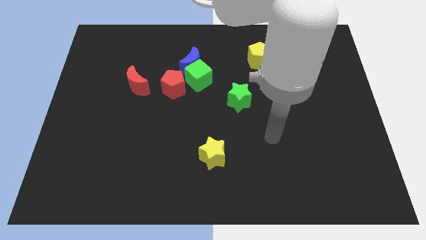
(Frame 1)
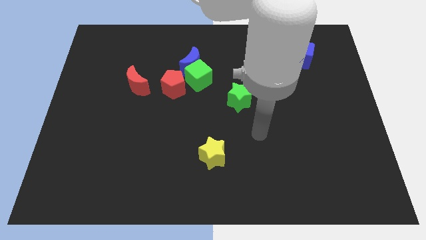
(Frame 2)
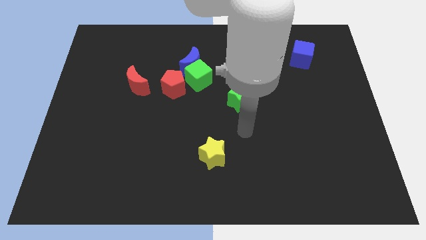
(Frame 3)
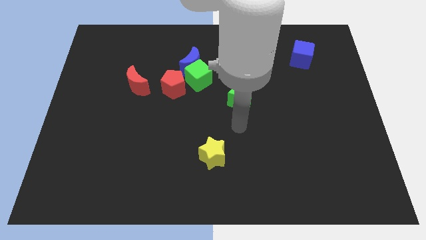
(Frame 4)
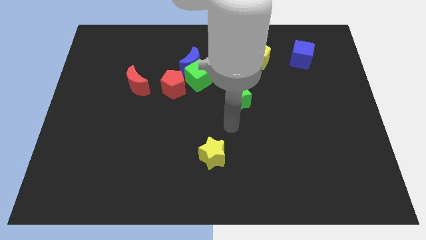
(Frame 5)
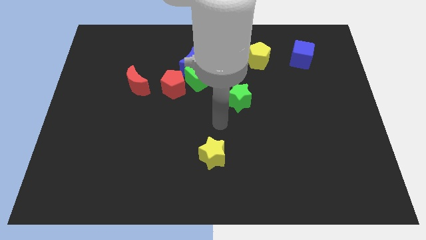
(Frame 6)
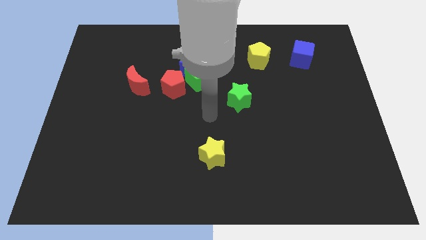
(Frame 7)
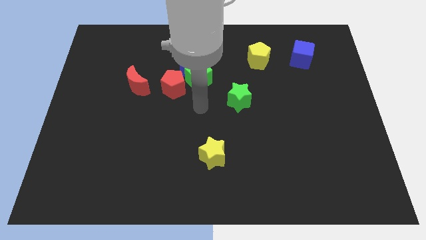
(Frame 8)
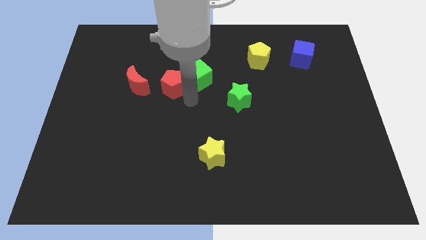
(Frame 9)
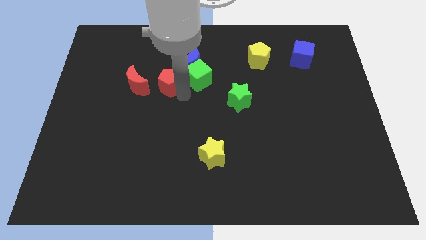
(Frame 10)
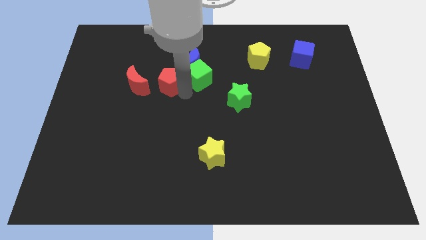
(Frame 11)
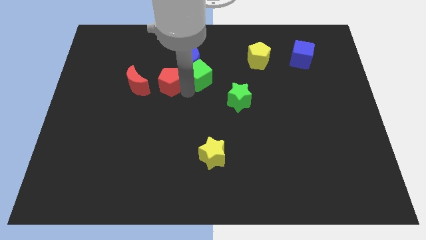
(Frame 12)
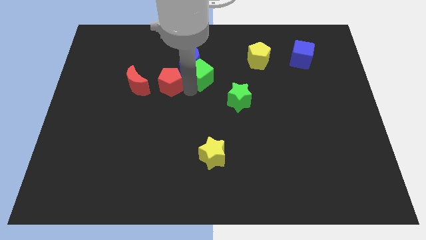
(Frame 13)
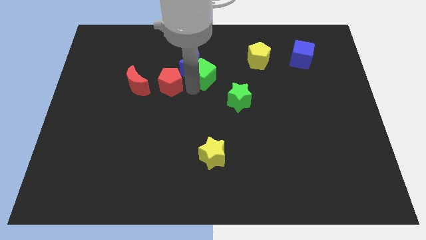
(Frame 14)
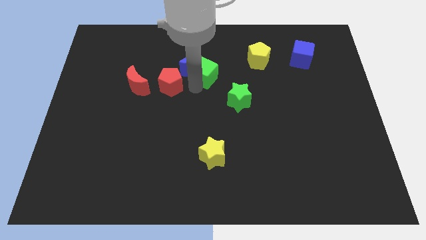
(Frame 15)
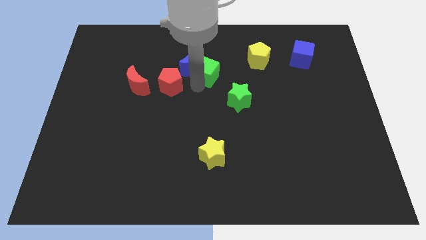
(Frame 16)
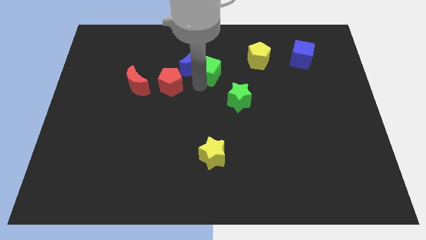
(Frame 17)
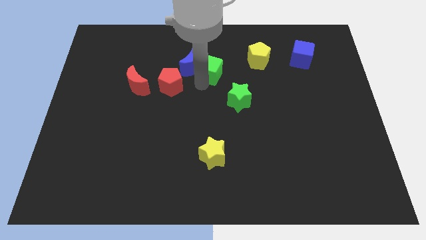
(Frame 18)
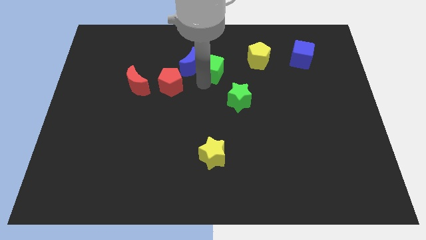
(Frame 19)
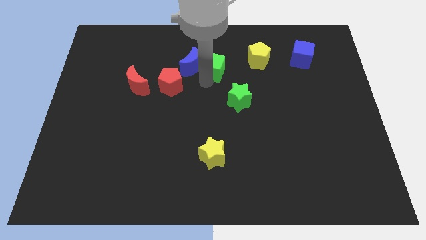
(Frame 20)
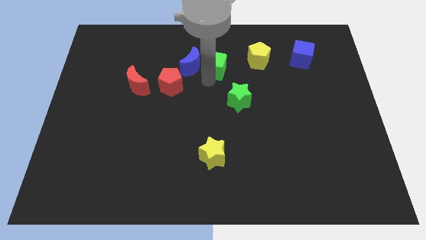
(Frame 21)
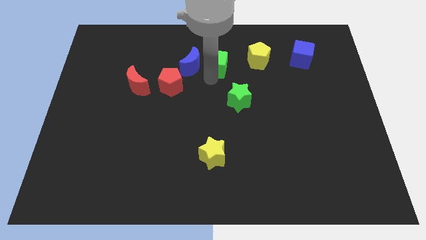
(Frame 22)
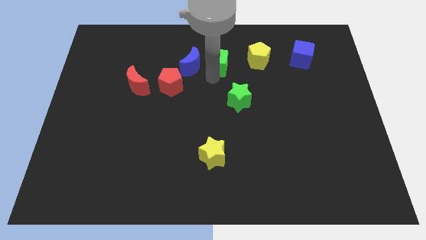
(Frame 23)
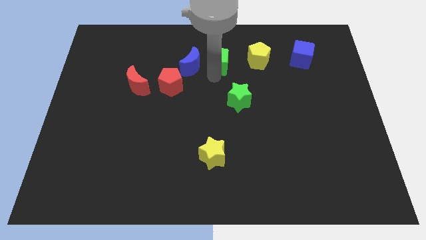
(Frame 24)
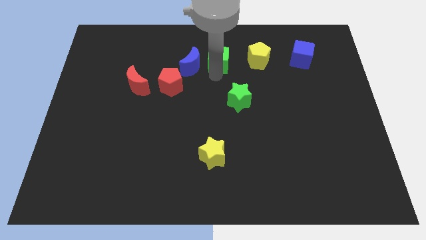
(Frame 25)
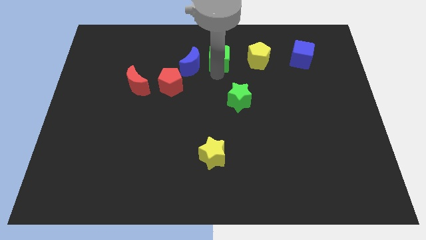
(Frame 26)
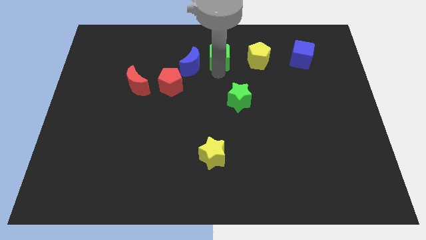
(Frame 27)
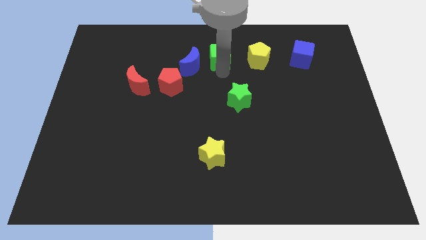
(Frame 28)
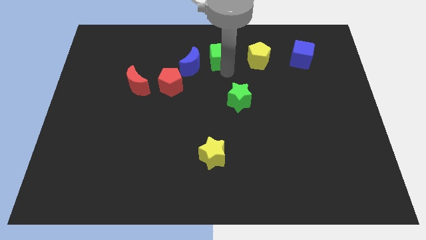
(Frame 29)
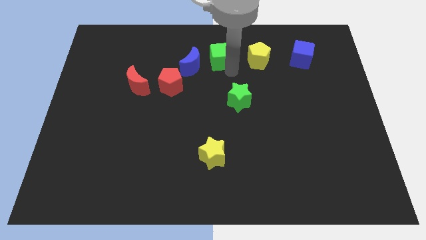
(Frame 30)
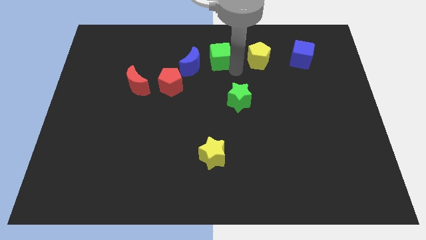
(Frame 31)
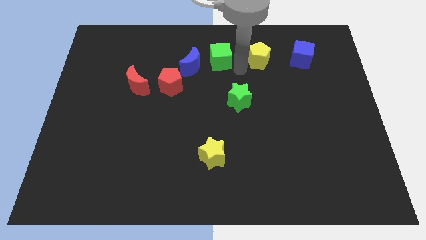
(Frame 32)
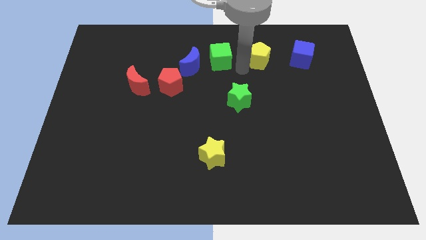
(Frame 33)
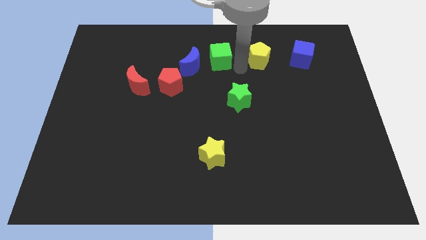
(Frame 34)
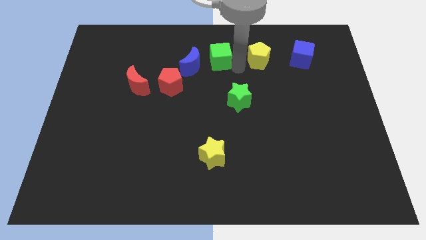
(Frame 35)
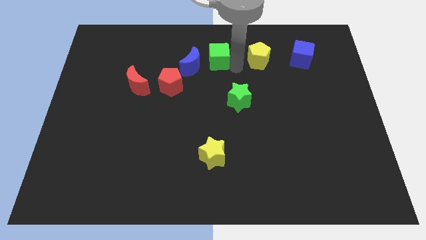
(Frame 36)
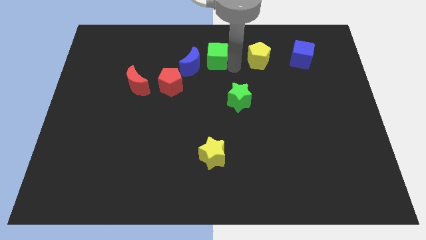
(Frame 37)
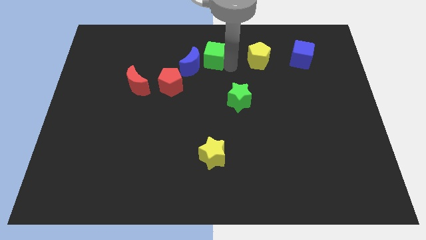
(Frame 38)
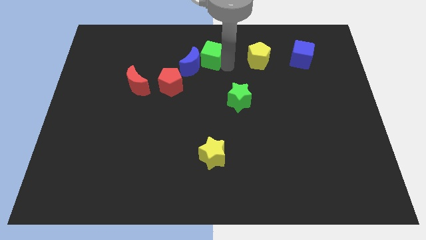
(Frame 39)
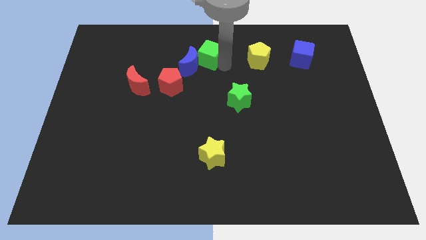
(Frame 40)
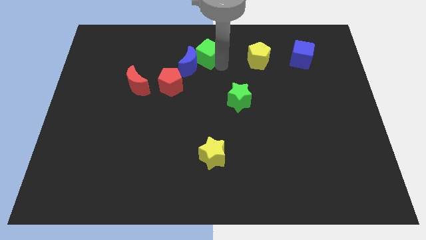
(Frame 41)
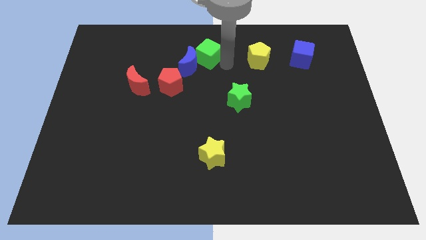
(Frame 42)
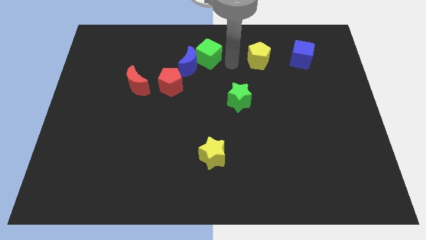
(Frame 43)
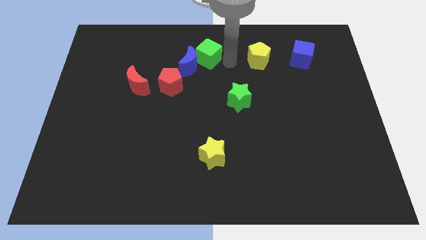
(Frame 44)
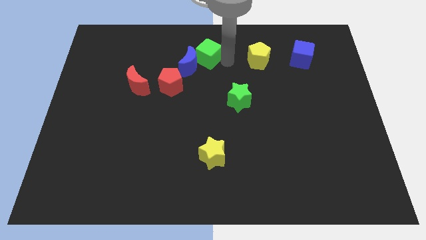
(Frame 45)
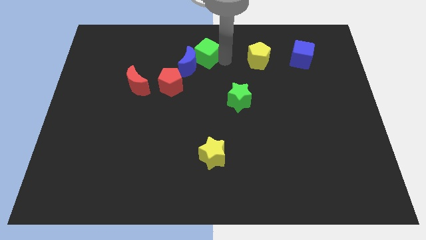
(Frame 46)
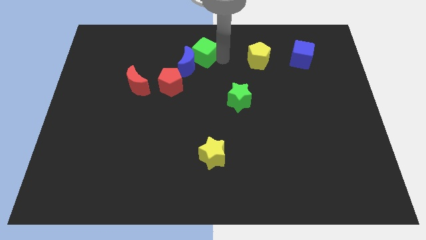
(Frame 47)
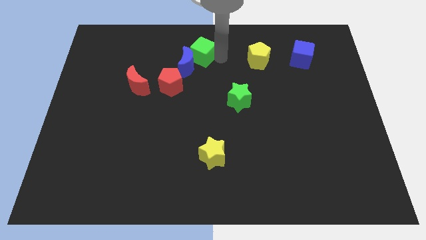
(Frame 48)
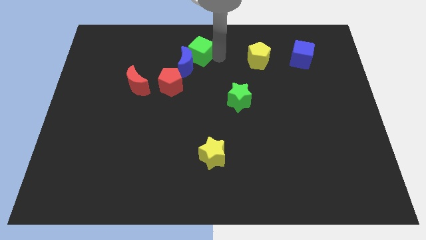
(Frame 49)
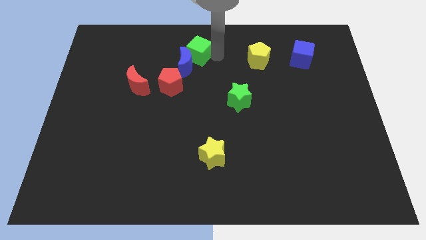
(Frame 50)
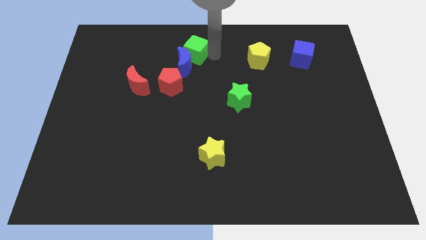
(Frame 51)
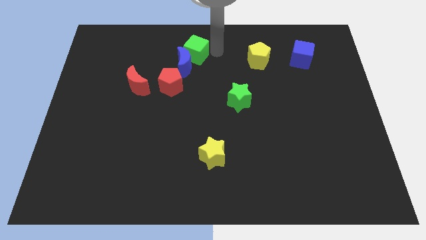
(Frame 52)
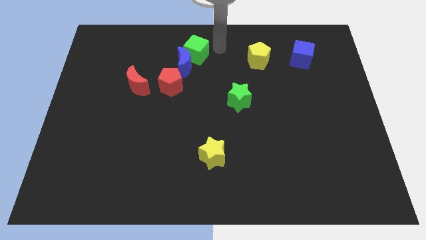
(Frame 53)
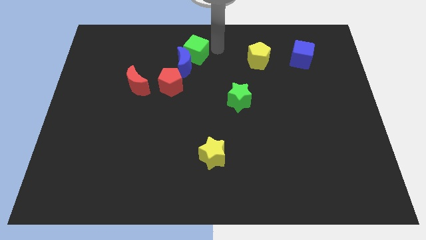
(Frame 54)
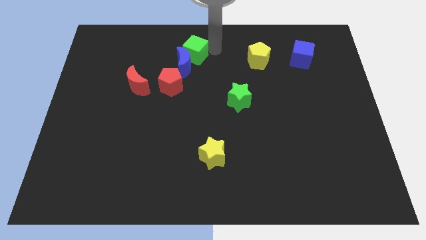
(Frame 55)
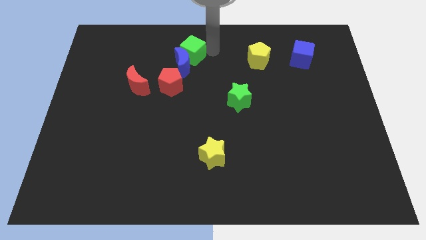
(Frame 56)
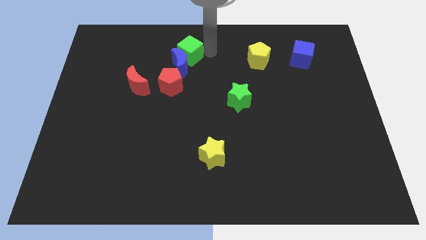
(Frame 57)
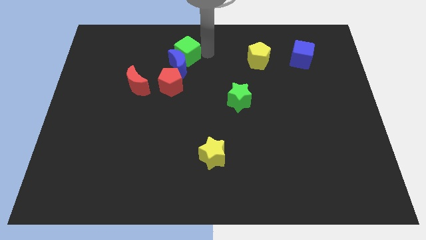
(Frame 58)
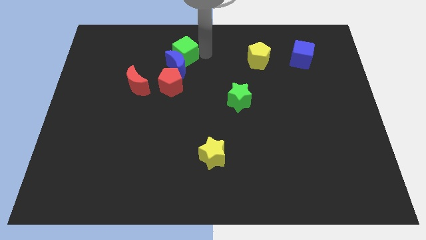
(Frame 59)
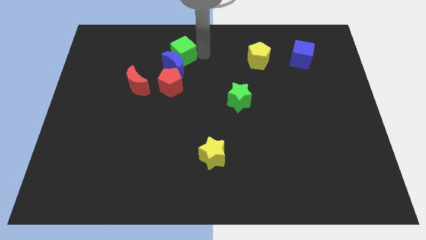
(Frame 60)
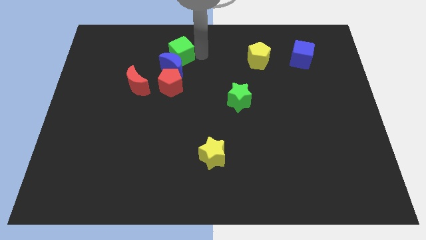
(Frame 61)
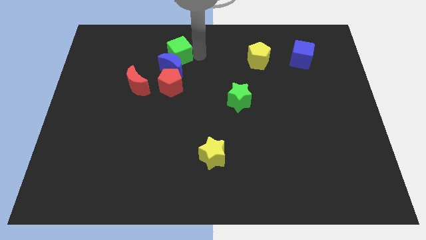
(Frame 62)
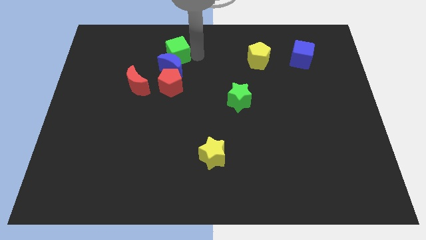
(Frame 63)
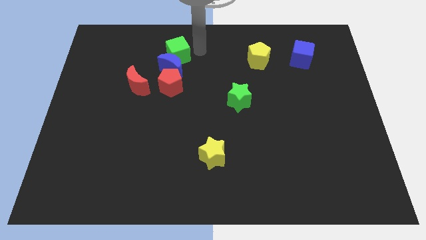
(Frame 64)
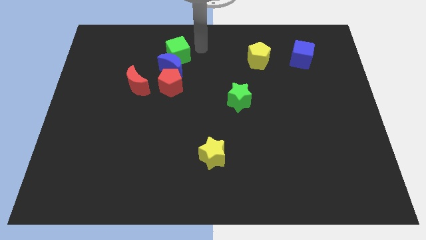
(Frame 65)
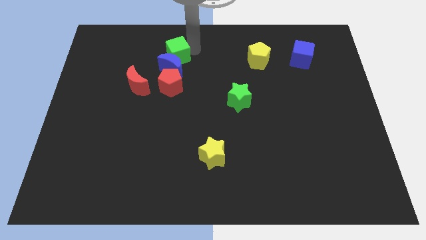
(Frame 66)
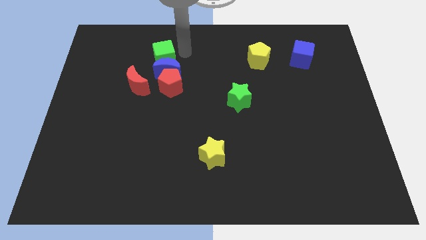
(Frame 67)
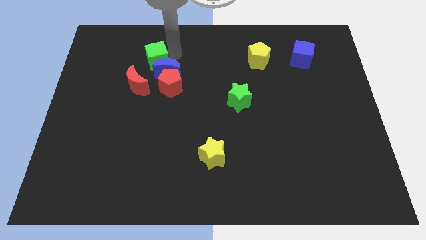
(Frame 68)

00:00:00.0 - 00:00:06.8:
move the green cube just left of the blue moon

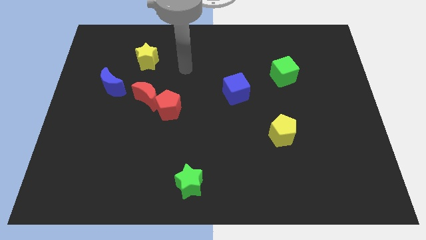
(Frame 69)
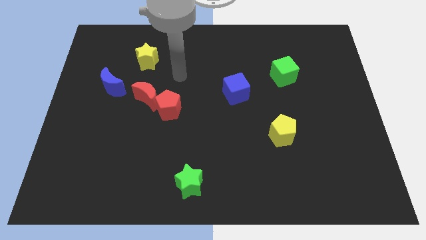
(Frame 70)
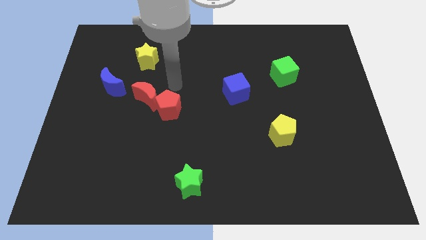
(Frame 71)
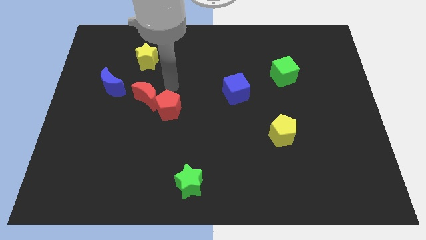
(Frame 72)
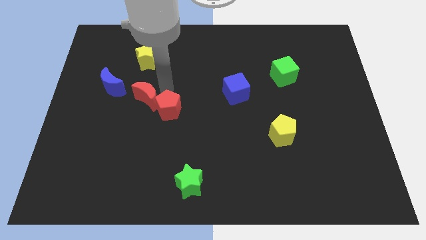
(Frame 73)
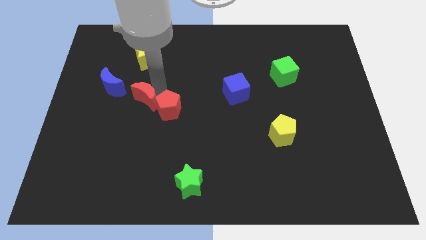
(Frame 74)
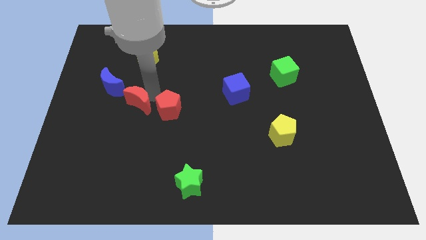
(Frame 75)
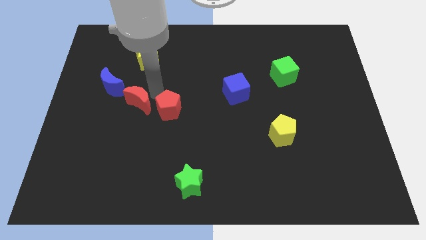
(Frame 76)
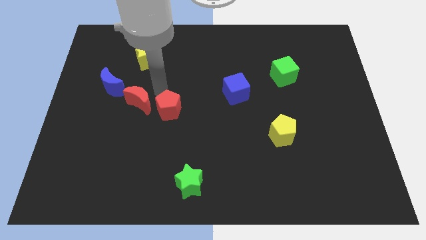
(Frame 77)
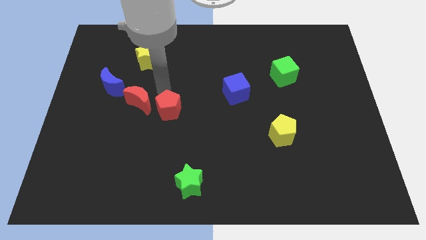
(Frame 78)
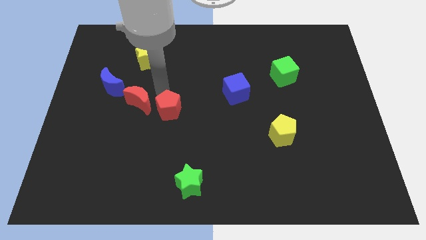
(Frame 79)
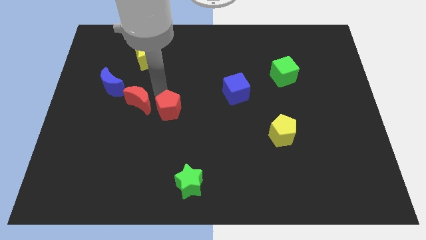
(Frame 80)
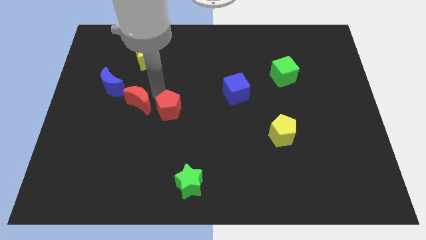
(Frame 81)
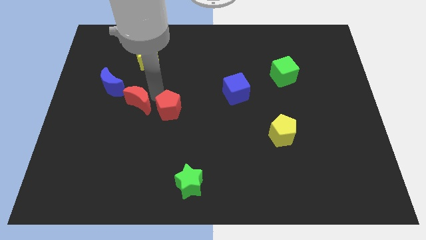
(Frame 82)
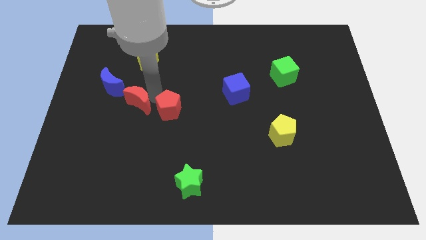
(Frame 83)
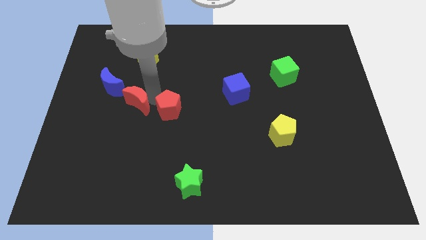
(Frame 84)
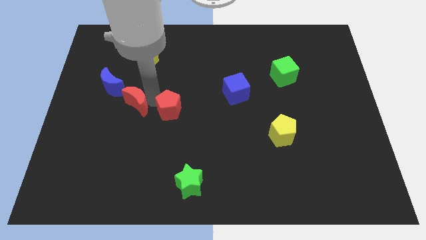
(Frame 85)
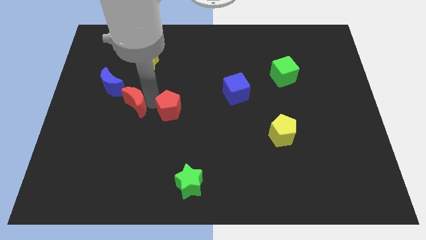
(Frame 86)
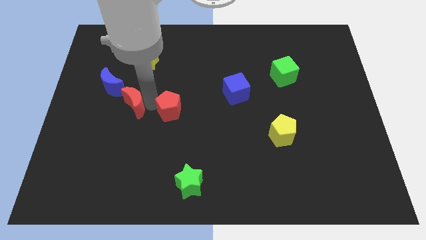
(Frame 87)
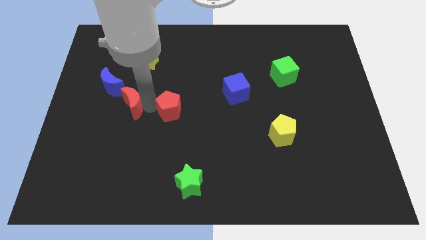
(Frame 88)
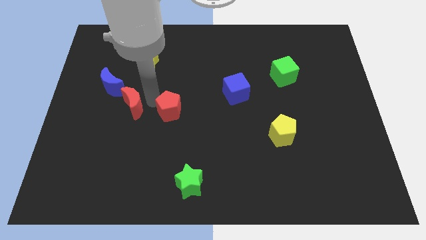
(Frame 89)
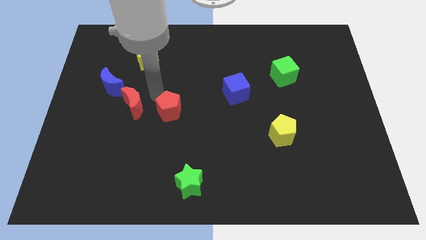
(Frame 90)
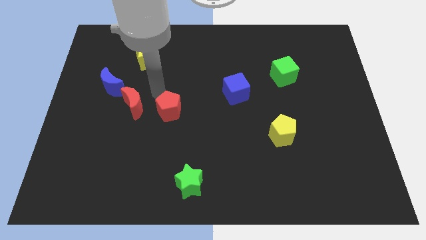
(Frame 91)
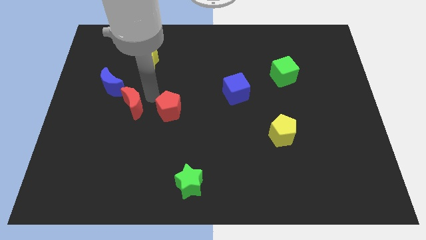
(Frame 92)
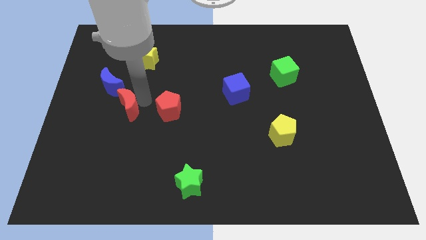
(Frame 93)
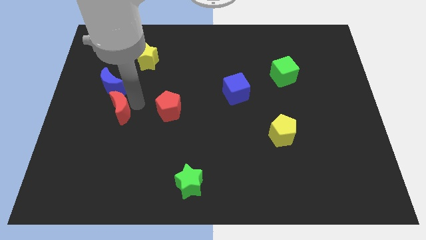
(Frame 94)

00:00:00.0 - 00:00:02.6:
move the red moon to the bottom side of the blue moon
